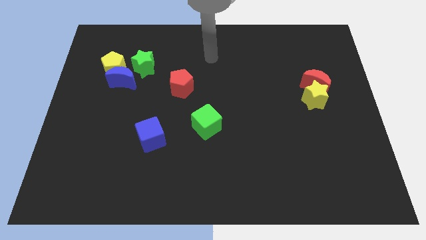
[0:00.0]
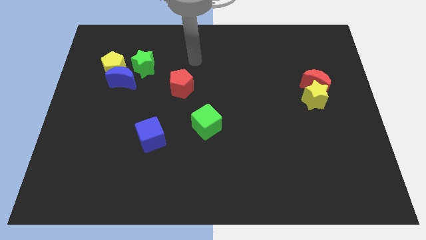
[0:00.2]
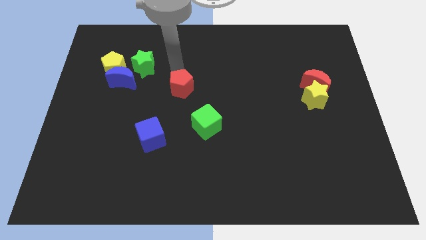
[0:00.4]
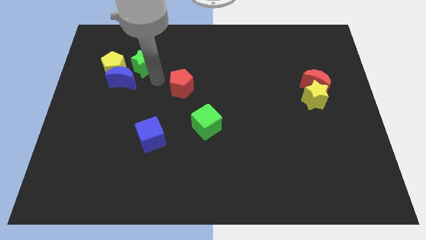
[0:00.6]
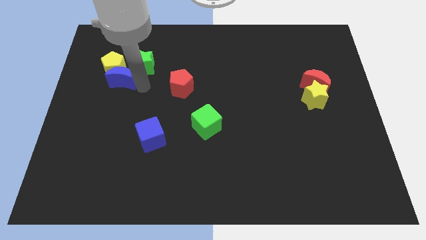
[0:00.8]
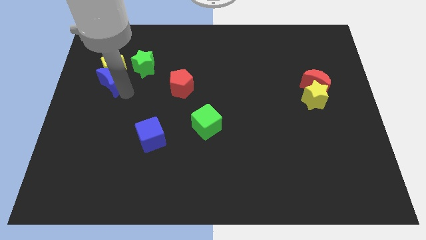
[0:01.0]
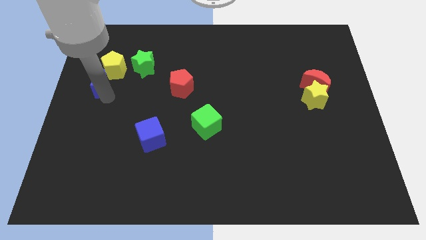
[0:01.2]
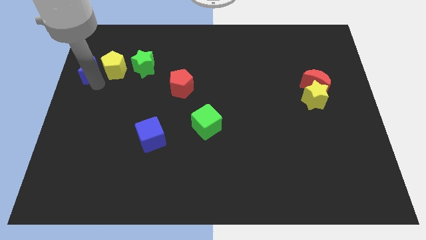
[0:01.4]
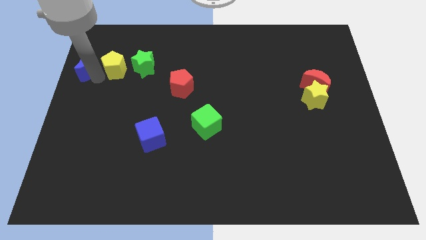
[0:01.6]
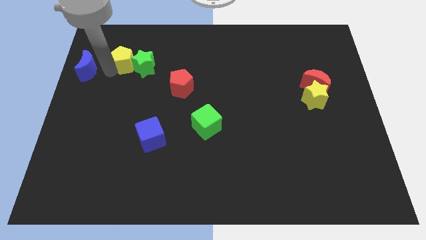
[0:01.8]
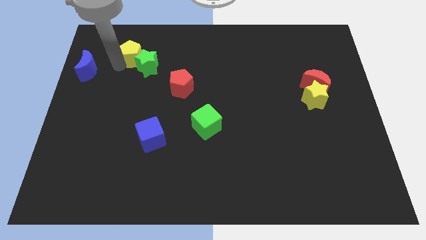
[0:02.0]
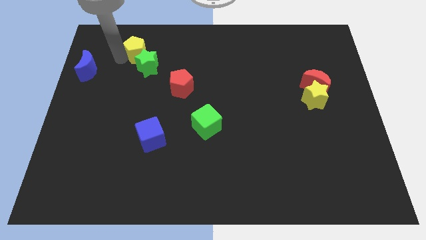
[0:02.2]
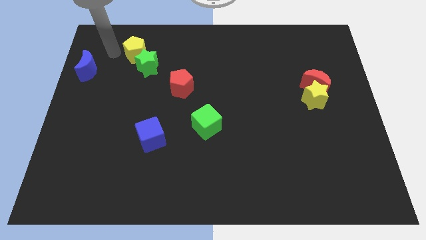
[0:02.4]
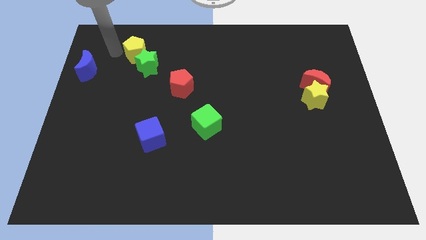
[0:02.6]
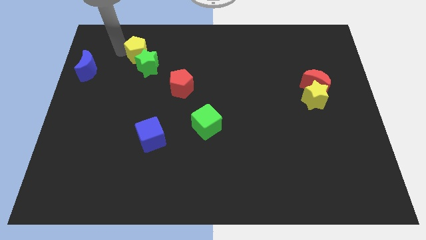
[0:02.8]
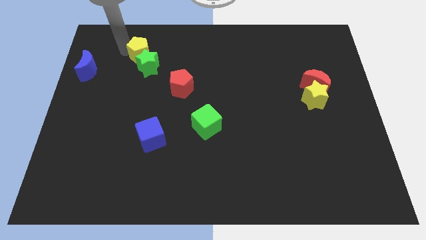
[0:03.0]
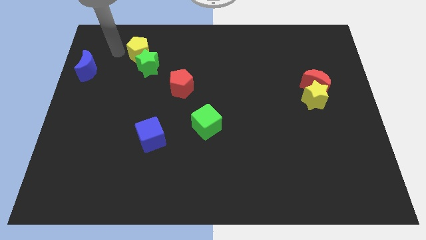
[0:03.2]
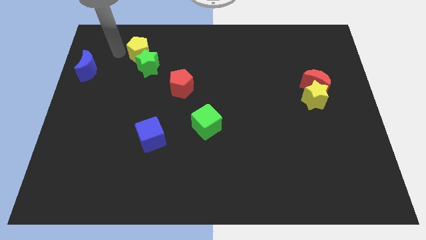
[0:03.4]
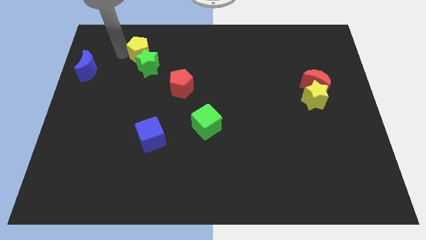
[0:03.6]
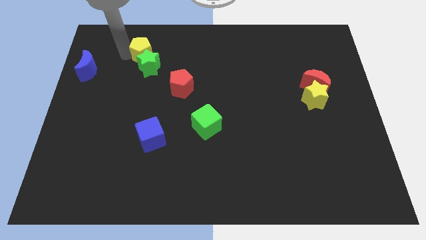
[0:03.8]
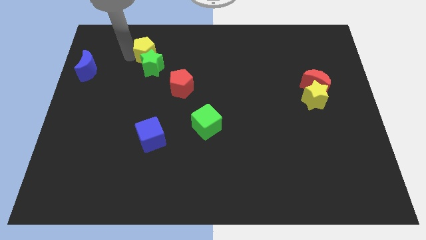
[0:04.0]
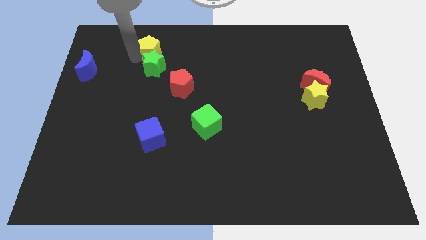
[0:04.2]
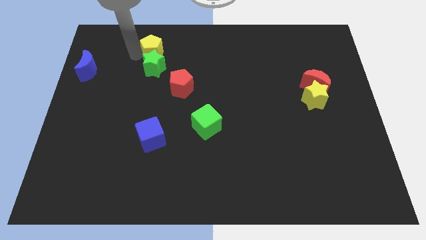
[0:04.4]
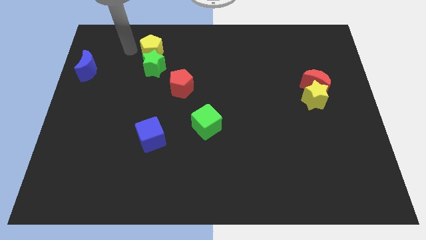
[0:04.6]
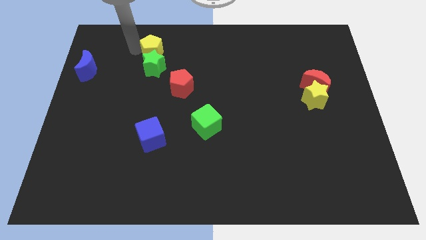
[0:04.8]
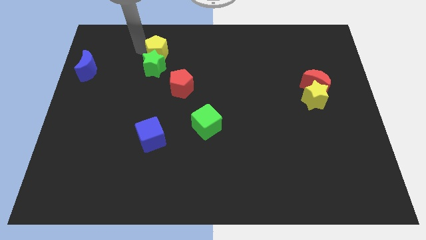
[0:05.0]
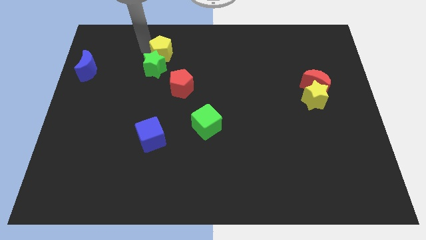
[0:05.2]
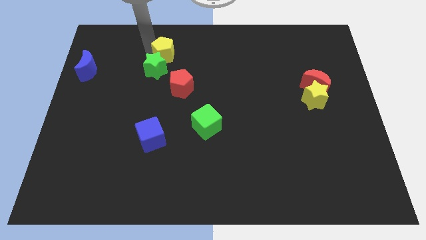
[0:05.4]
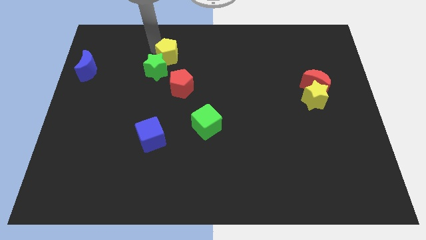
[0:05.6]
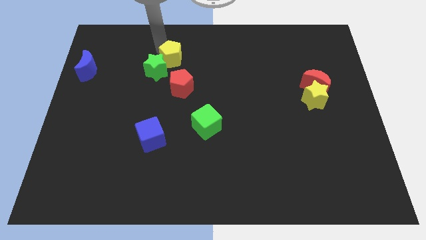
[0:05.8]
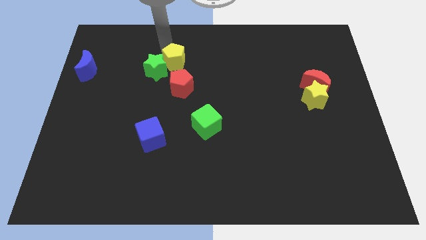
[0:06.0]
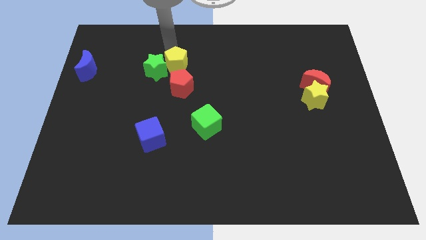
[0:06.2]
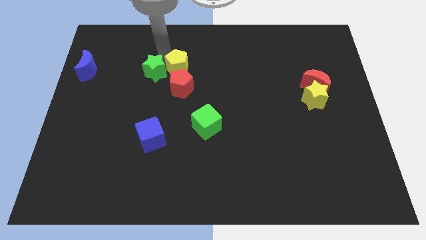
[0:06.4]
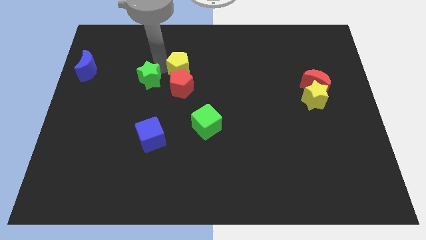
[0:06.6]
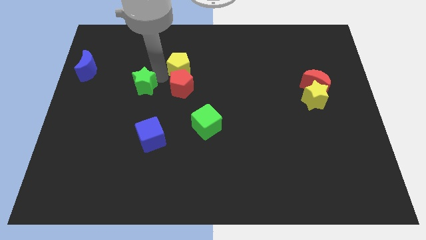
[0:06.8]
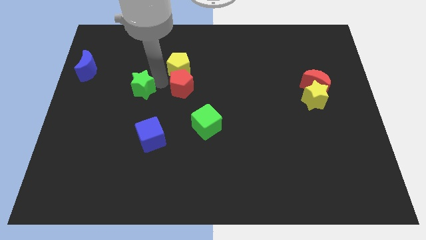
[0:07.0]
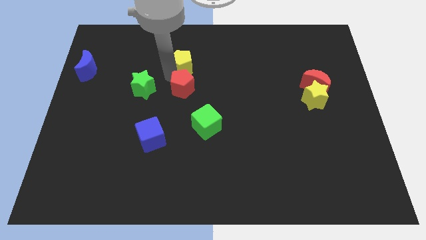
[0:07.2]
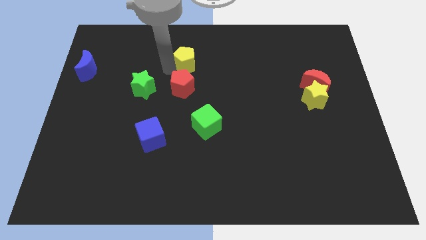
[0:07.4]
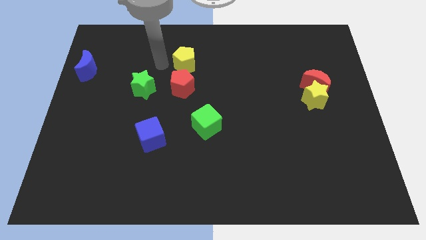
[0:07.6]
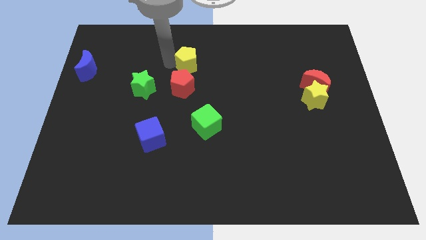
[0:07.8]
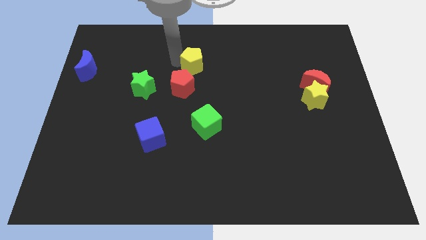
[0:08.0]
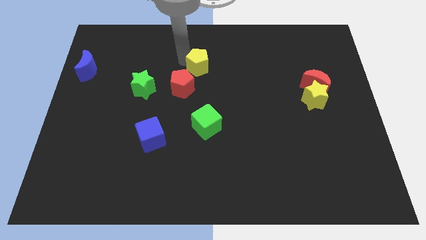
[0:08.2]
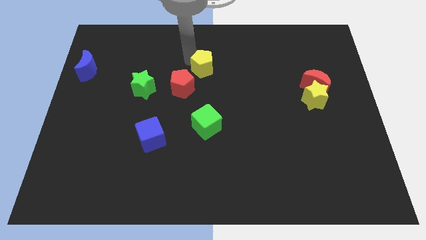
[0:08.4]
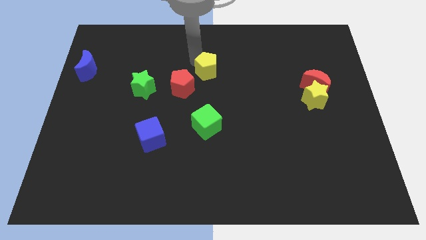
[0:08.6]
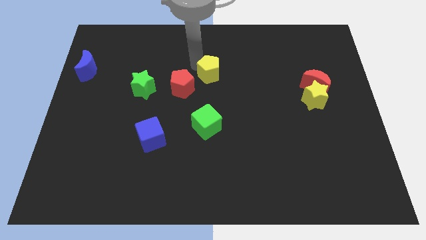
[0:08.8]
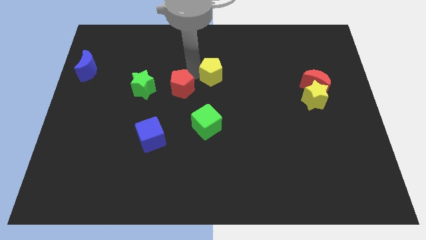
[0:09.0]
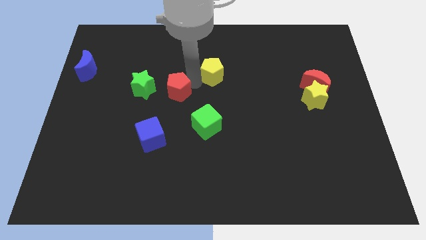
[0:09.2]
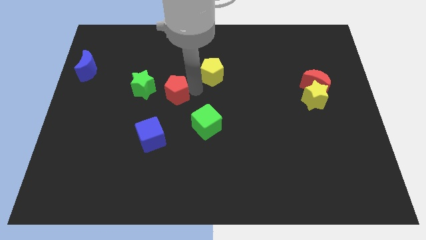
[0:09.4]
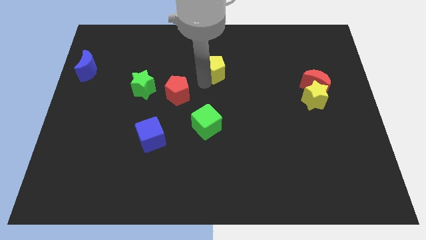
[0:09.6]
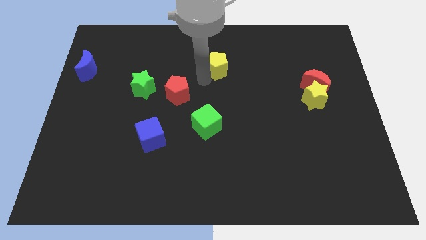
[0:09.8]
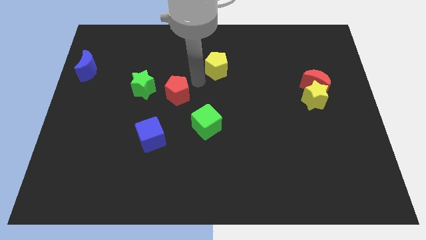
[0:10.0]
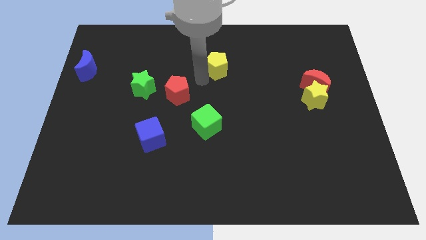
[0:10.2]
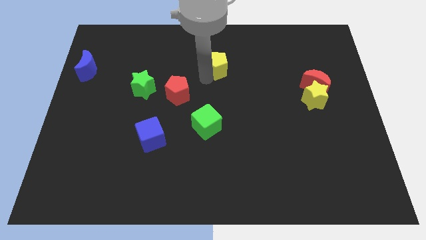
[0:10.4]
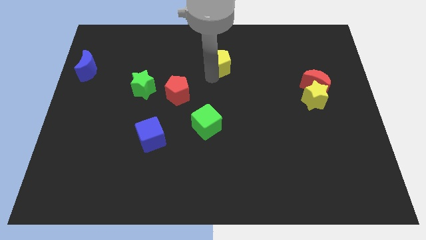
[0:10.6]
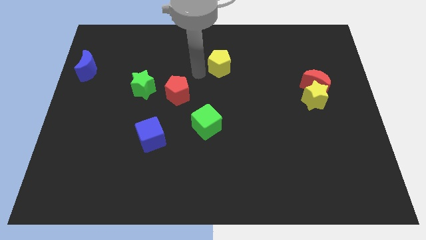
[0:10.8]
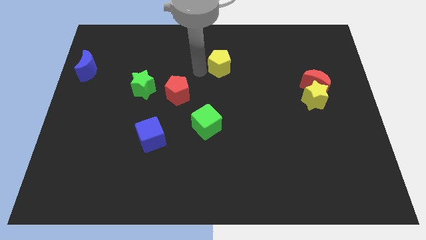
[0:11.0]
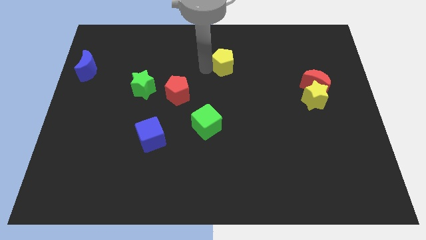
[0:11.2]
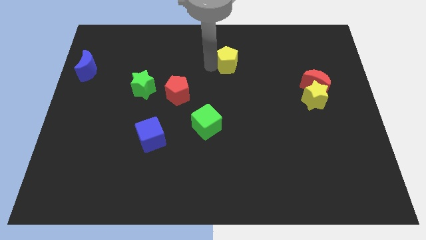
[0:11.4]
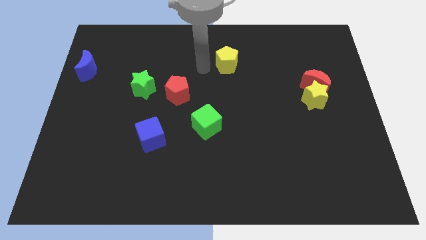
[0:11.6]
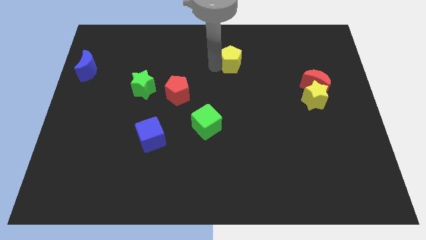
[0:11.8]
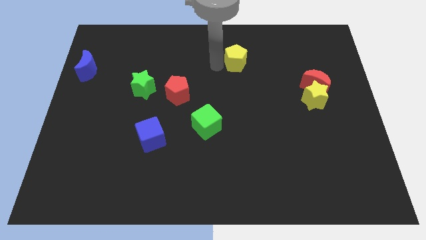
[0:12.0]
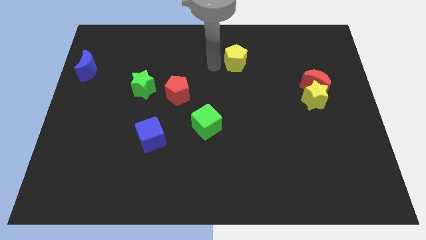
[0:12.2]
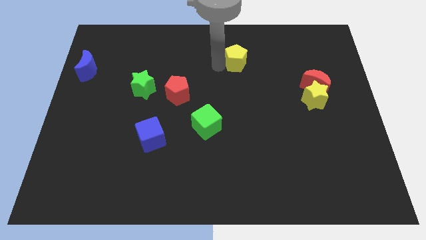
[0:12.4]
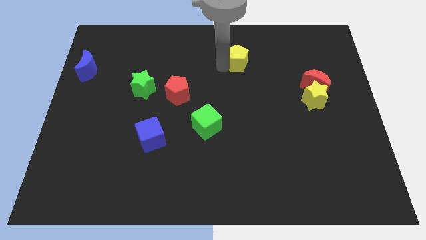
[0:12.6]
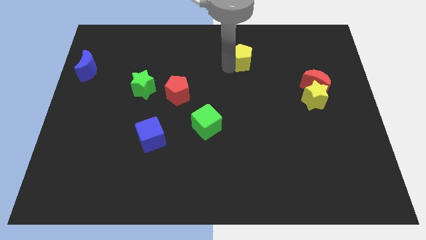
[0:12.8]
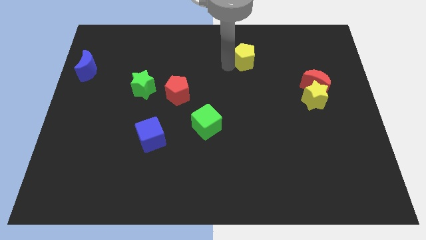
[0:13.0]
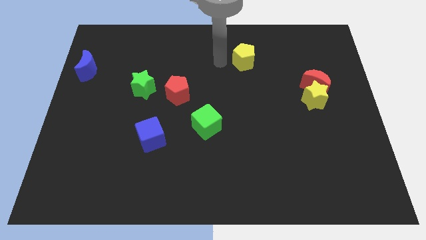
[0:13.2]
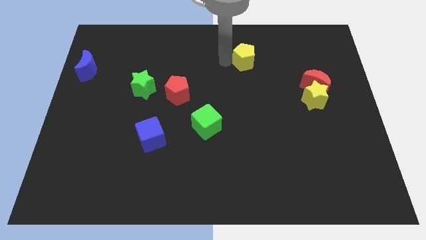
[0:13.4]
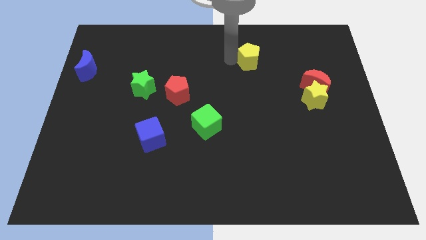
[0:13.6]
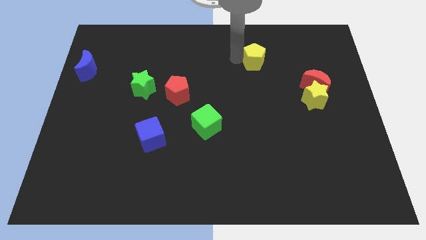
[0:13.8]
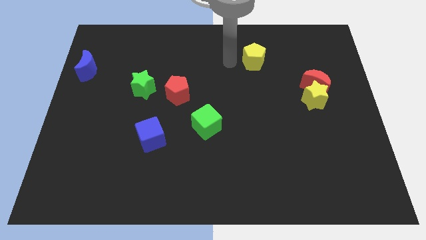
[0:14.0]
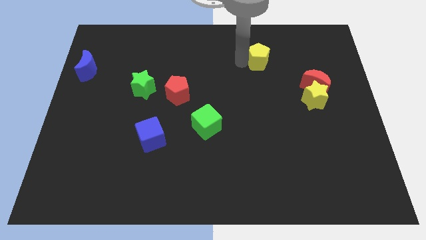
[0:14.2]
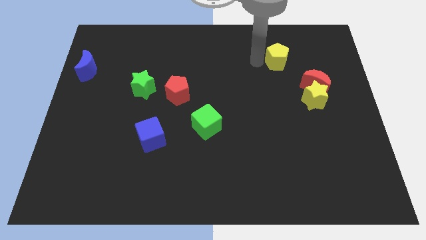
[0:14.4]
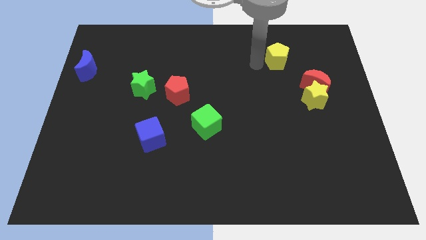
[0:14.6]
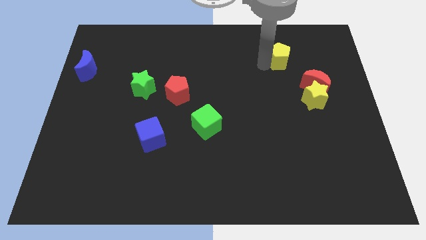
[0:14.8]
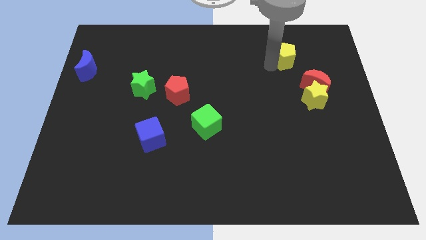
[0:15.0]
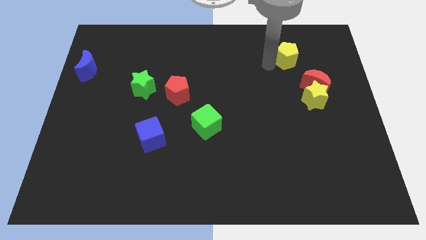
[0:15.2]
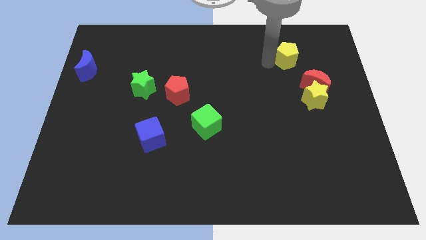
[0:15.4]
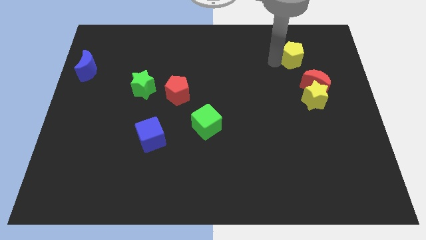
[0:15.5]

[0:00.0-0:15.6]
slide the yellow pentagon to the top of the red moon
